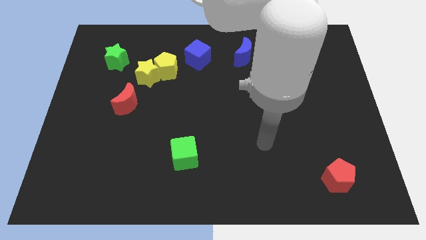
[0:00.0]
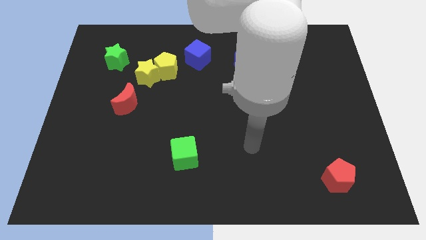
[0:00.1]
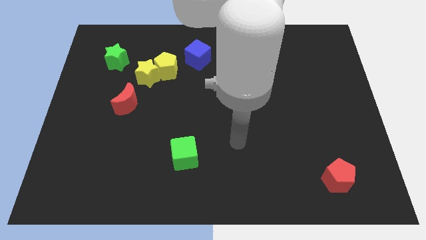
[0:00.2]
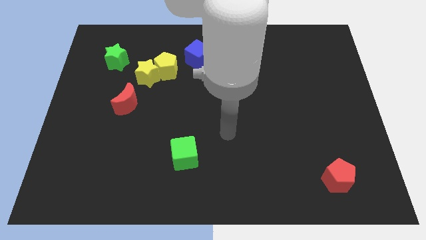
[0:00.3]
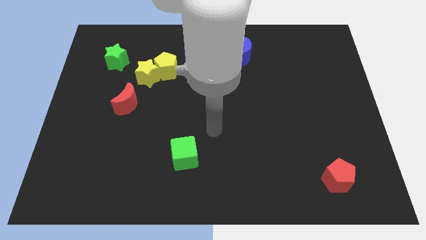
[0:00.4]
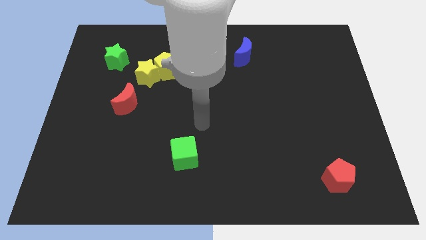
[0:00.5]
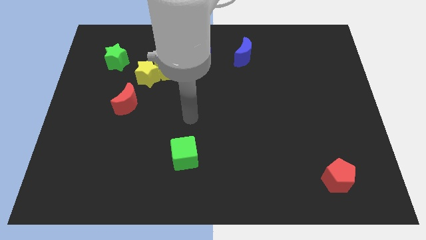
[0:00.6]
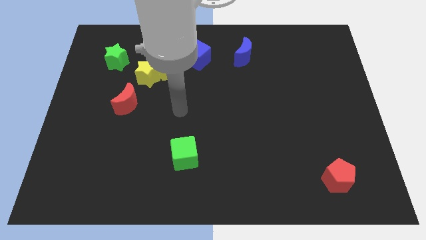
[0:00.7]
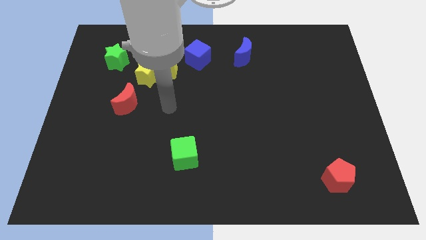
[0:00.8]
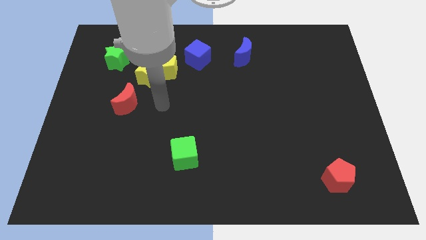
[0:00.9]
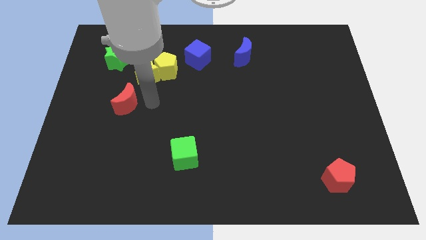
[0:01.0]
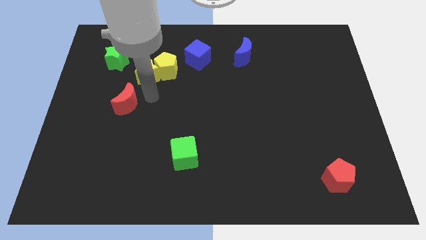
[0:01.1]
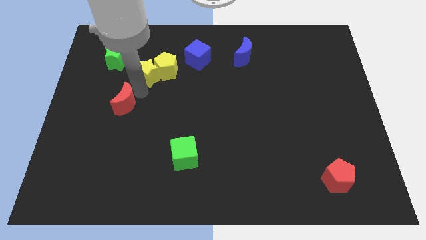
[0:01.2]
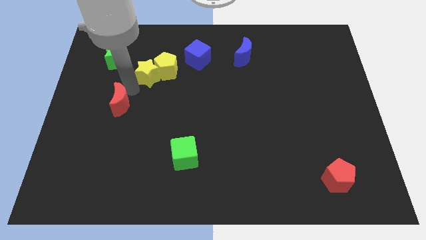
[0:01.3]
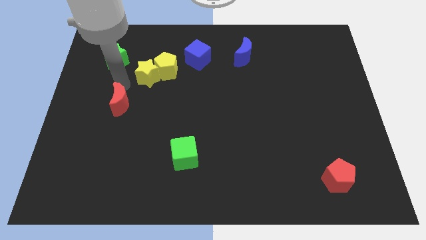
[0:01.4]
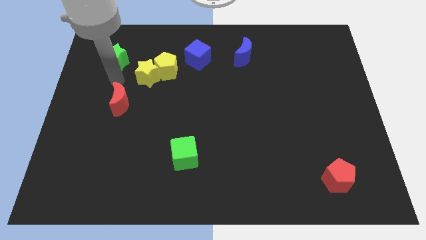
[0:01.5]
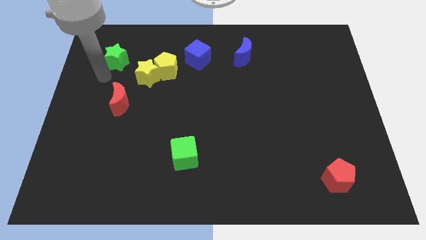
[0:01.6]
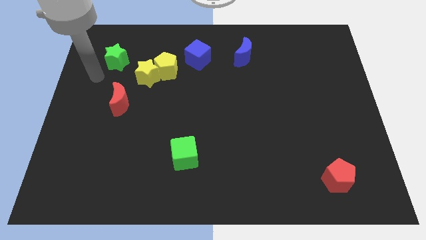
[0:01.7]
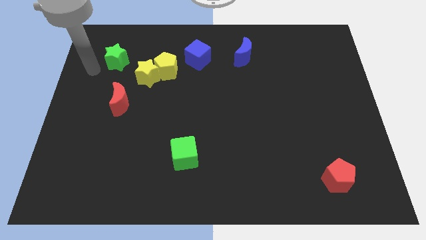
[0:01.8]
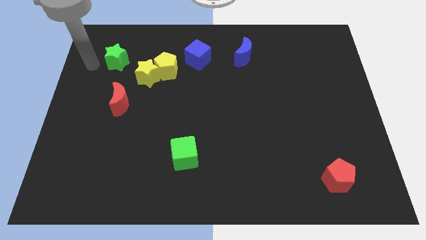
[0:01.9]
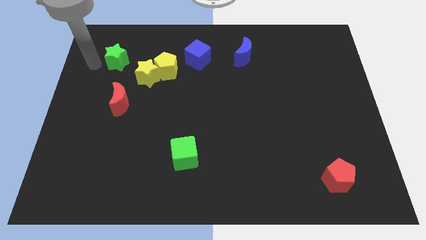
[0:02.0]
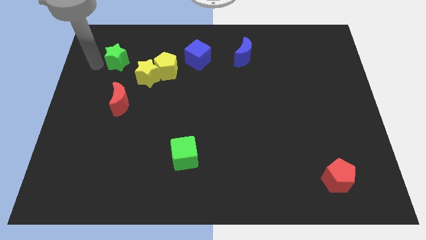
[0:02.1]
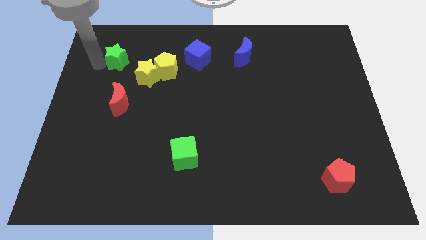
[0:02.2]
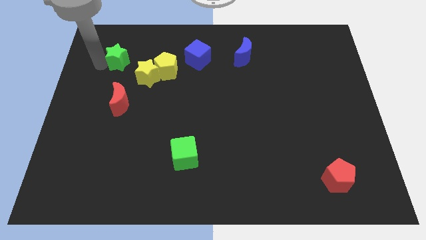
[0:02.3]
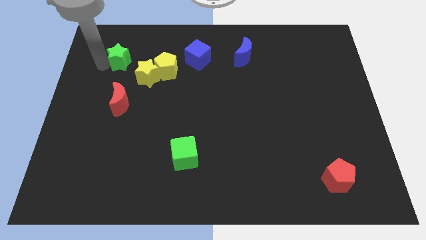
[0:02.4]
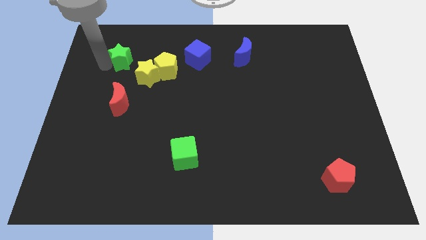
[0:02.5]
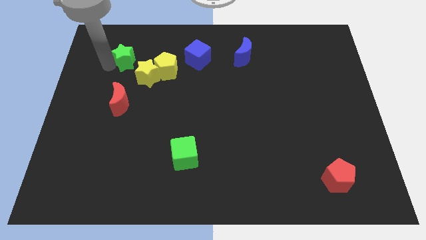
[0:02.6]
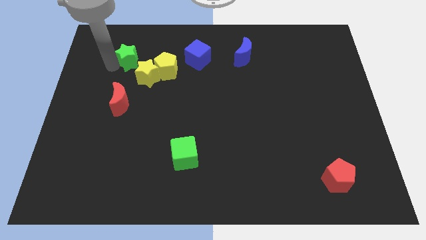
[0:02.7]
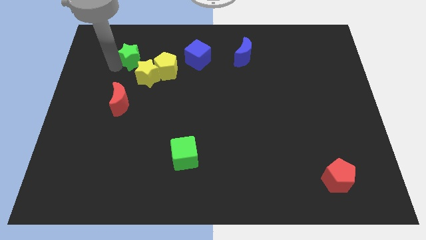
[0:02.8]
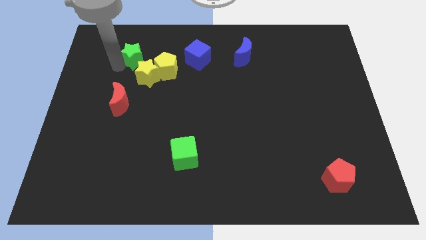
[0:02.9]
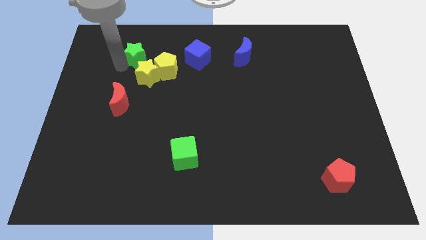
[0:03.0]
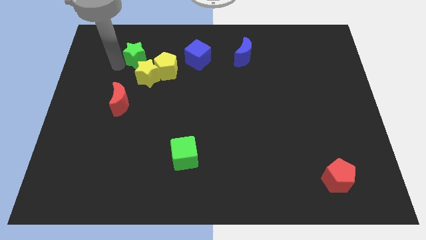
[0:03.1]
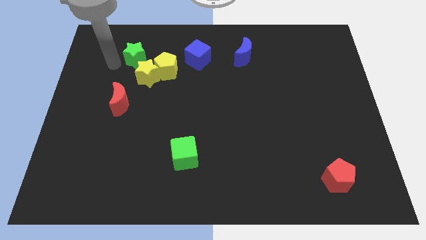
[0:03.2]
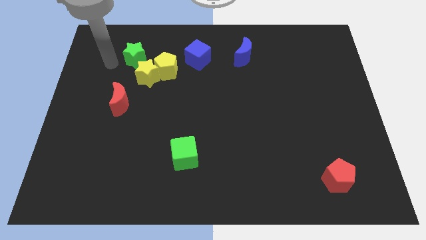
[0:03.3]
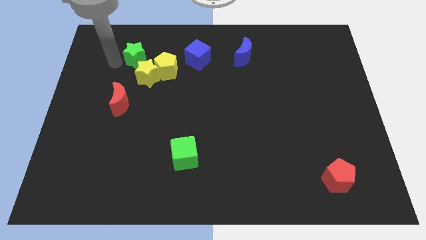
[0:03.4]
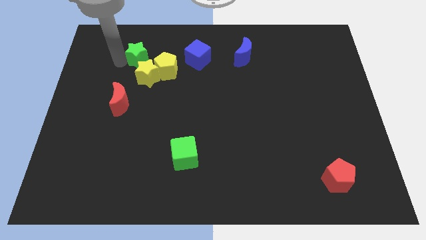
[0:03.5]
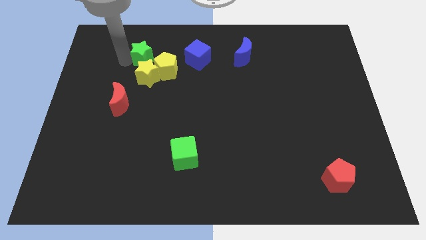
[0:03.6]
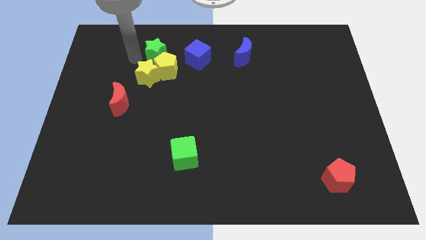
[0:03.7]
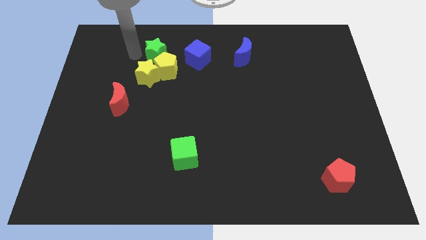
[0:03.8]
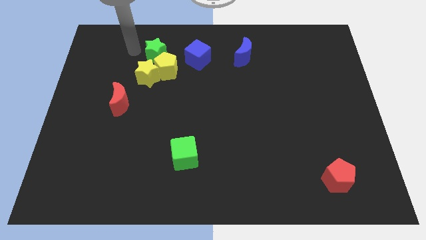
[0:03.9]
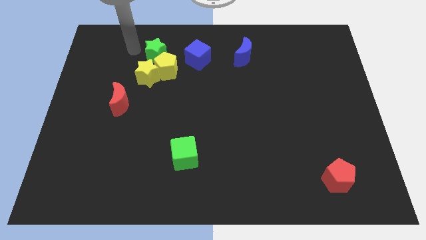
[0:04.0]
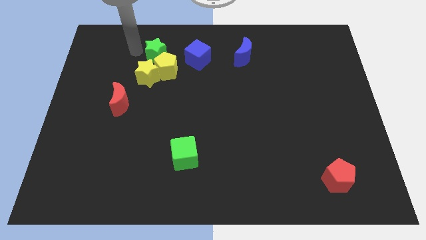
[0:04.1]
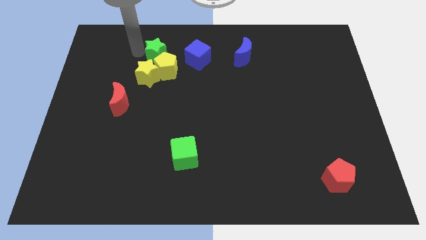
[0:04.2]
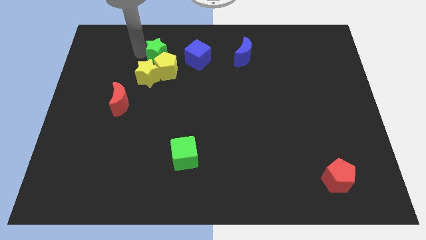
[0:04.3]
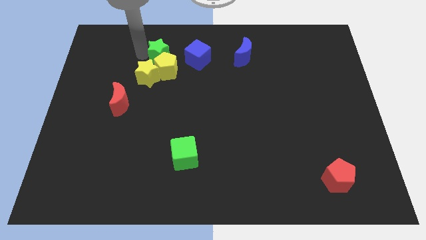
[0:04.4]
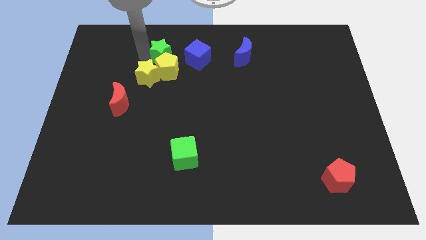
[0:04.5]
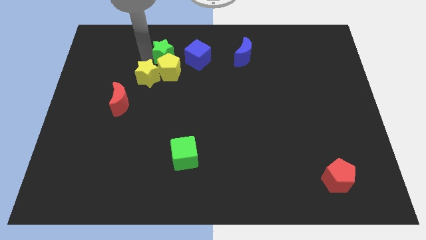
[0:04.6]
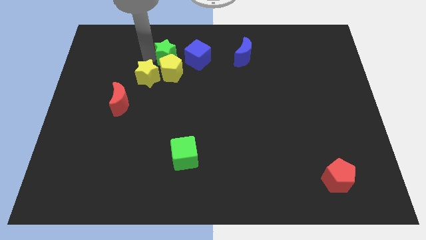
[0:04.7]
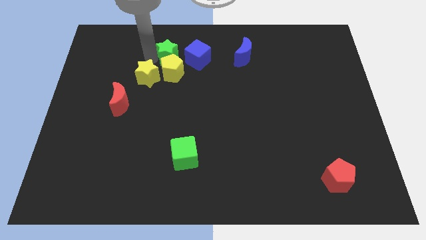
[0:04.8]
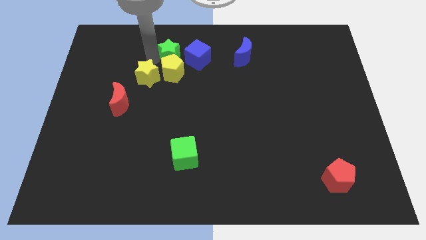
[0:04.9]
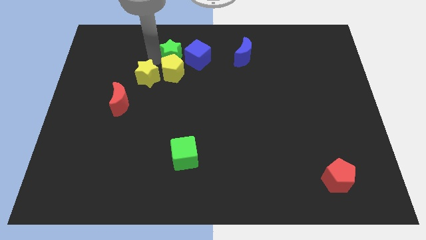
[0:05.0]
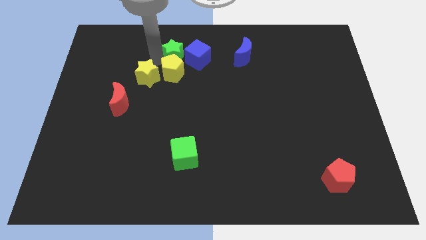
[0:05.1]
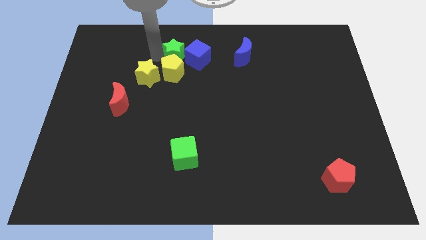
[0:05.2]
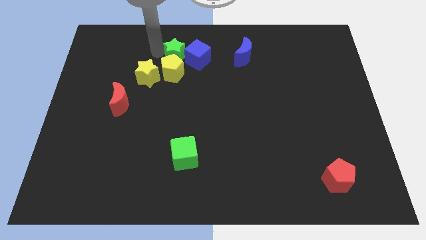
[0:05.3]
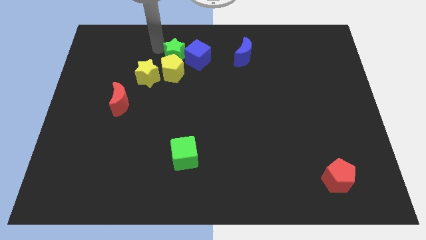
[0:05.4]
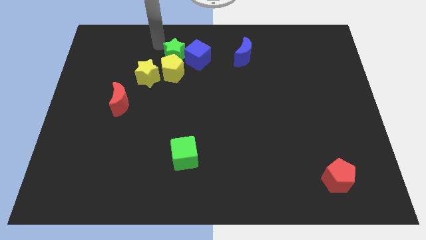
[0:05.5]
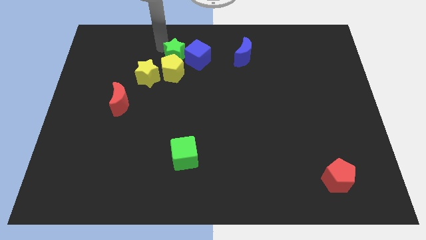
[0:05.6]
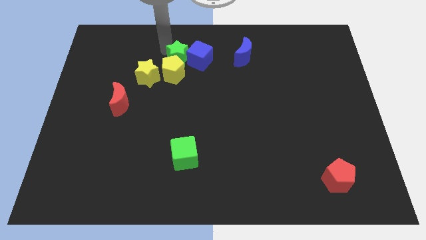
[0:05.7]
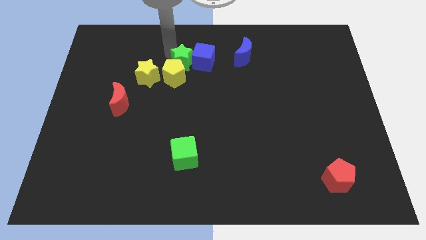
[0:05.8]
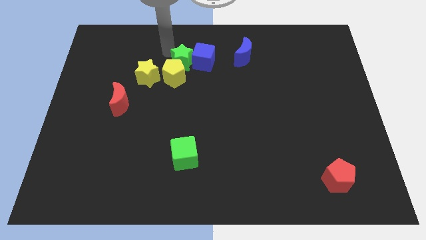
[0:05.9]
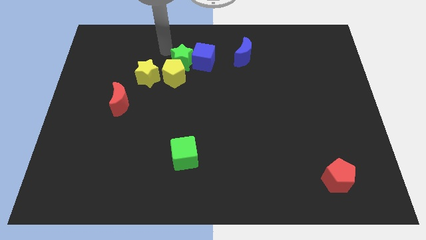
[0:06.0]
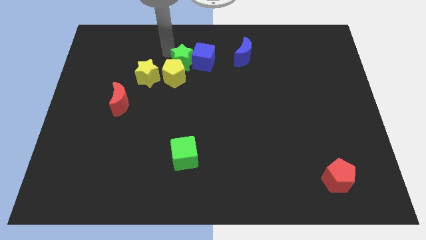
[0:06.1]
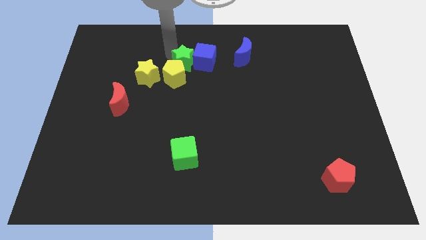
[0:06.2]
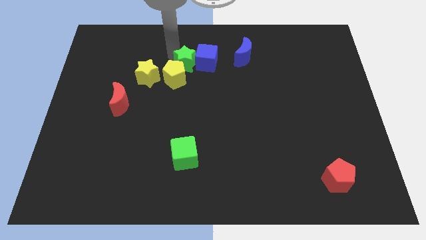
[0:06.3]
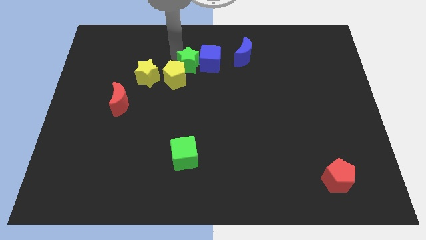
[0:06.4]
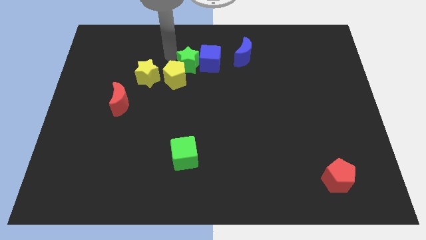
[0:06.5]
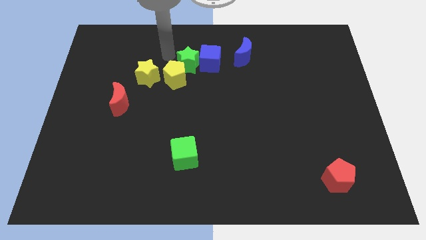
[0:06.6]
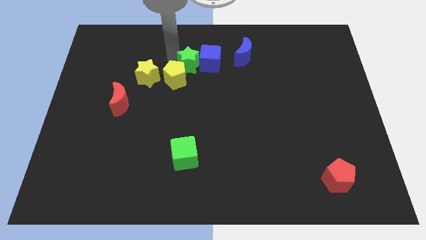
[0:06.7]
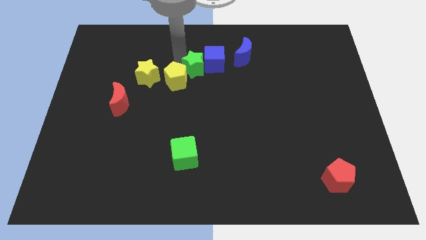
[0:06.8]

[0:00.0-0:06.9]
push the green star just right of the yellow pentagon

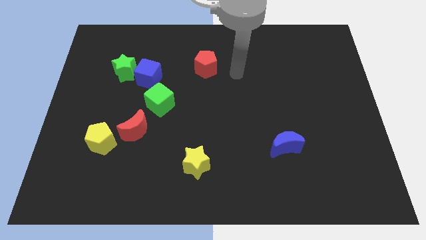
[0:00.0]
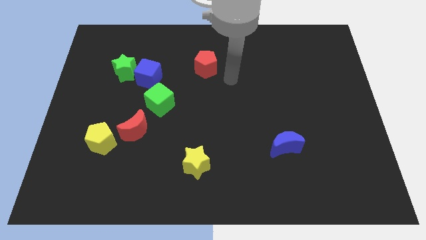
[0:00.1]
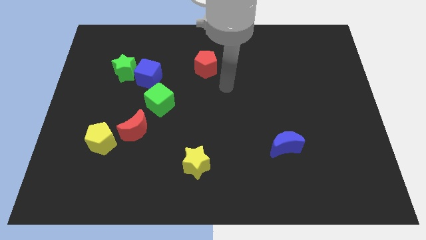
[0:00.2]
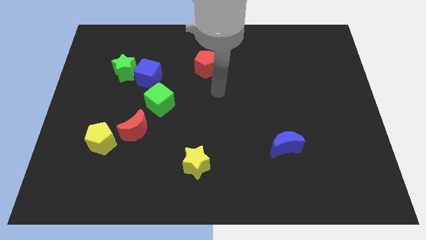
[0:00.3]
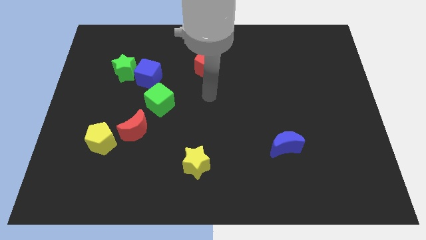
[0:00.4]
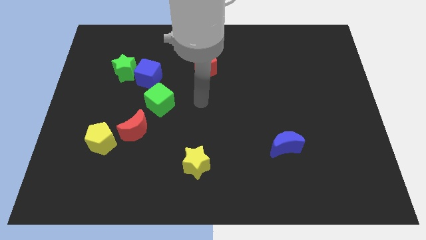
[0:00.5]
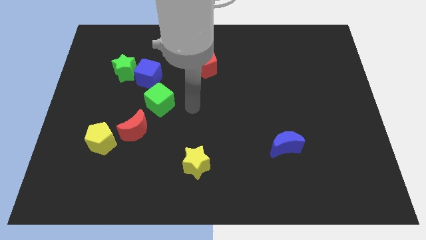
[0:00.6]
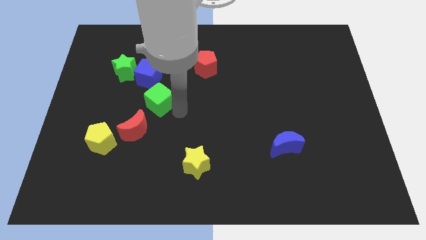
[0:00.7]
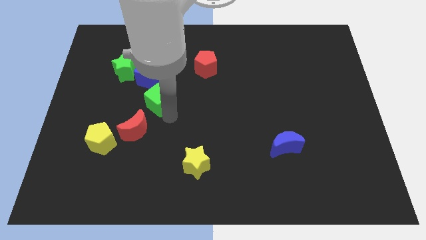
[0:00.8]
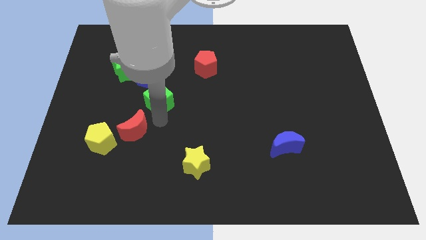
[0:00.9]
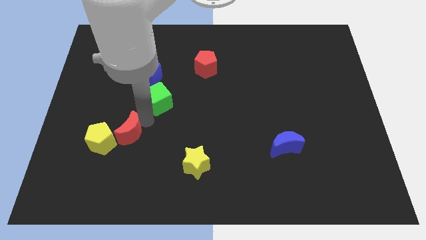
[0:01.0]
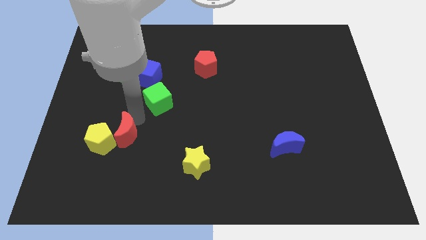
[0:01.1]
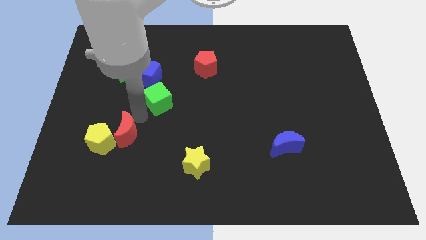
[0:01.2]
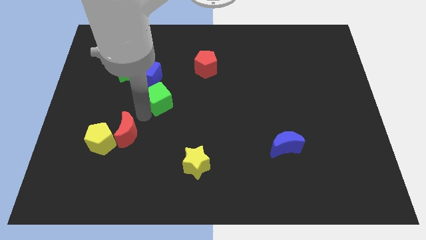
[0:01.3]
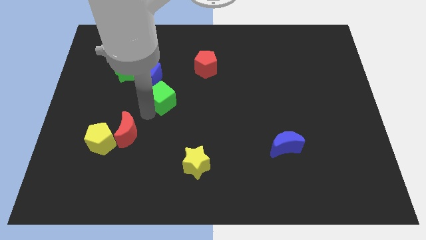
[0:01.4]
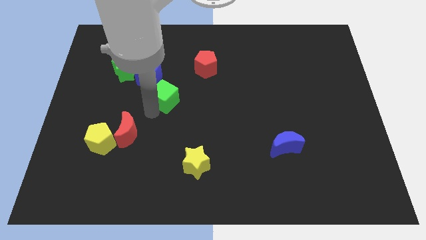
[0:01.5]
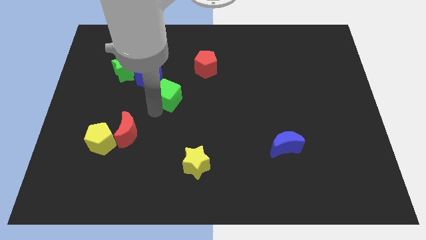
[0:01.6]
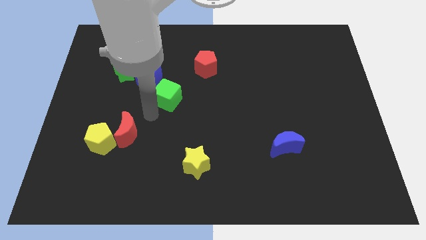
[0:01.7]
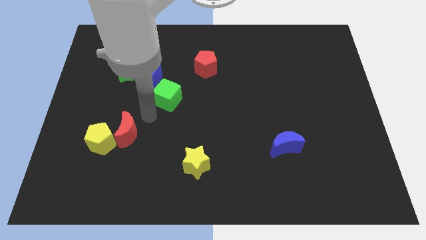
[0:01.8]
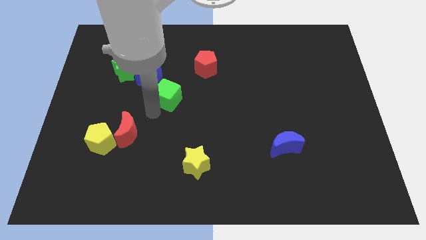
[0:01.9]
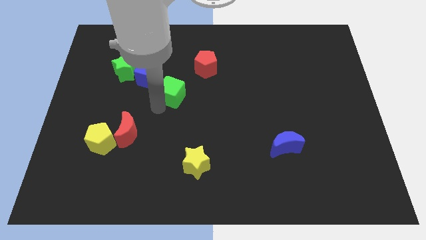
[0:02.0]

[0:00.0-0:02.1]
slide the green cube to the bottom left of the red pentagon
